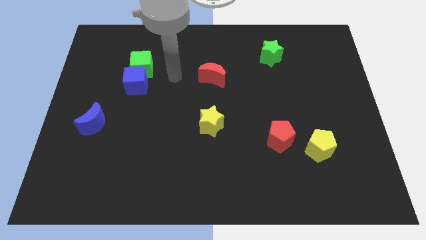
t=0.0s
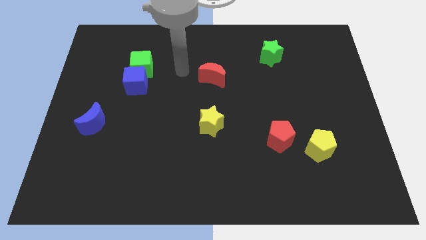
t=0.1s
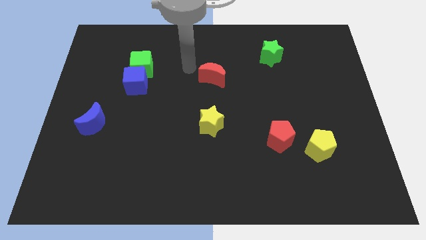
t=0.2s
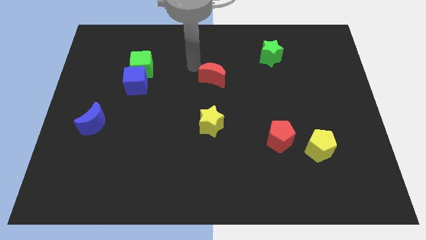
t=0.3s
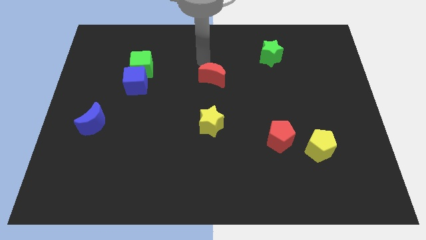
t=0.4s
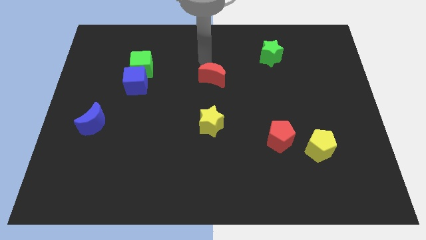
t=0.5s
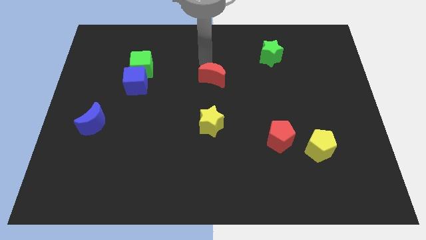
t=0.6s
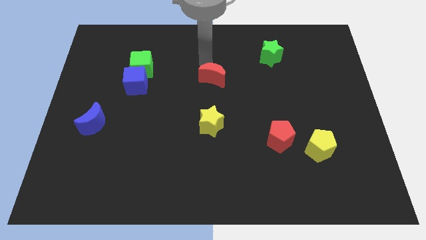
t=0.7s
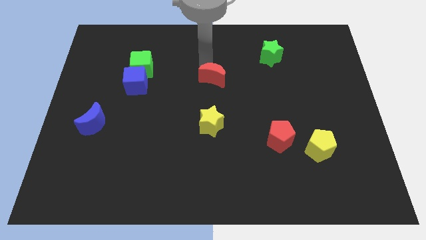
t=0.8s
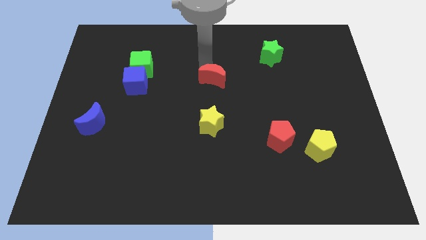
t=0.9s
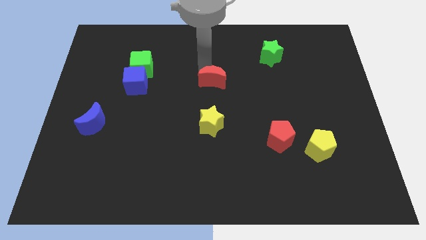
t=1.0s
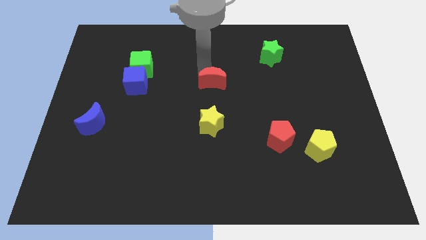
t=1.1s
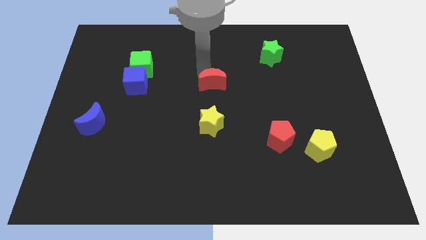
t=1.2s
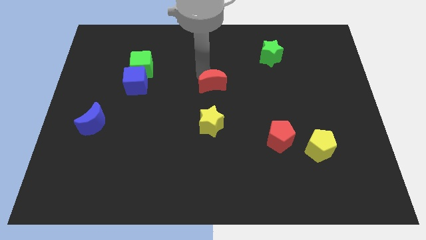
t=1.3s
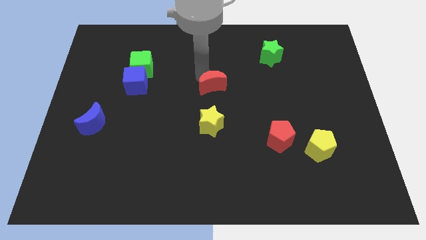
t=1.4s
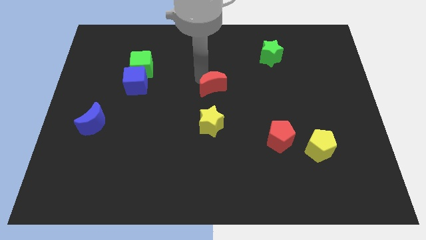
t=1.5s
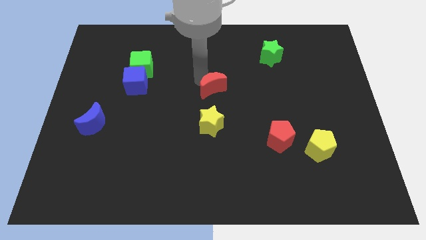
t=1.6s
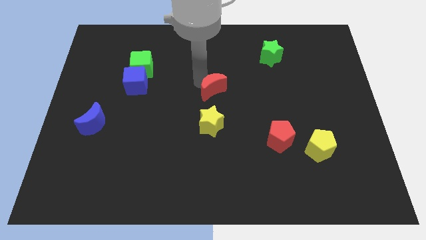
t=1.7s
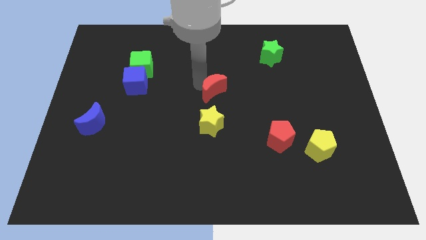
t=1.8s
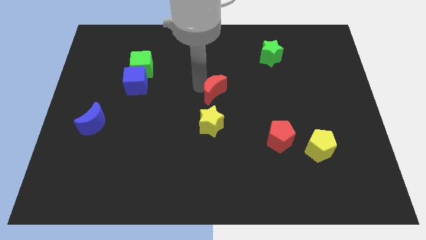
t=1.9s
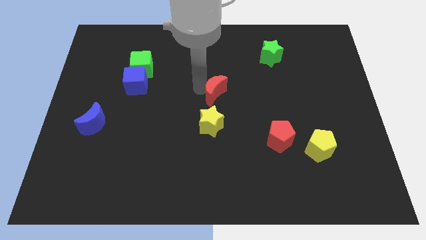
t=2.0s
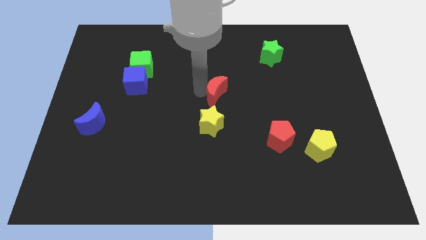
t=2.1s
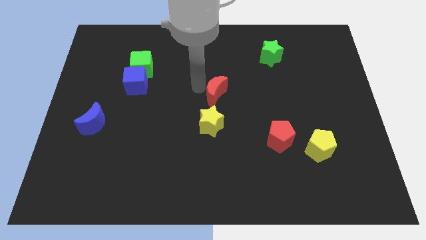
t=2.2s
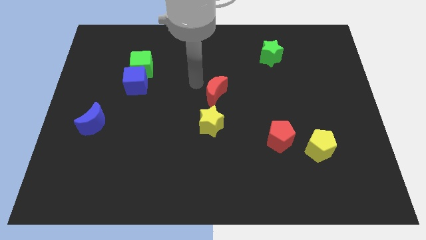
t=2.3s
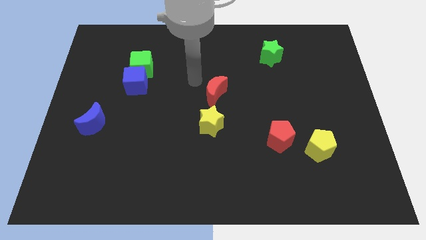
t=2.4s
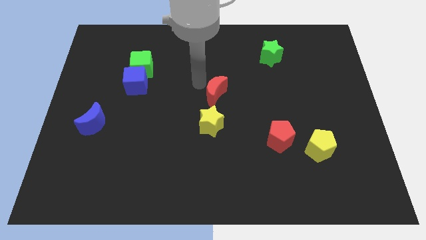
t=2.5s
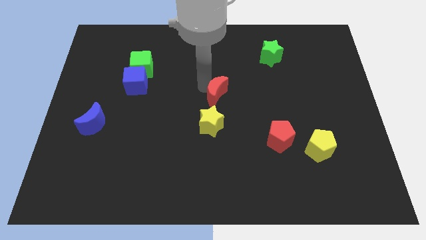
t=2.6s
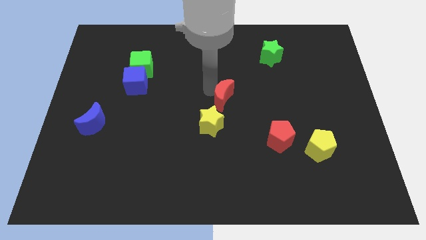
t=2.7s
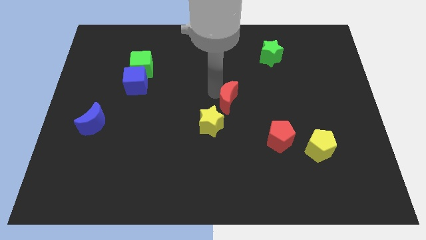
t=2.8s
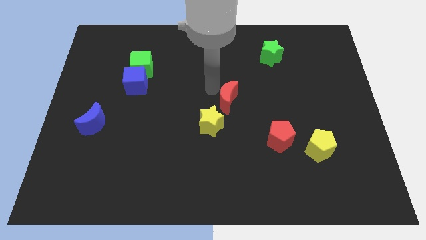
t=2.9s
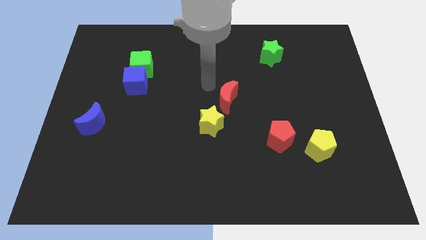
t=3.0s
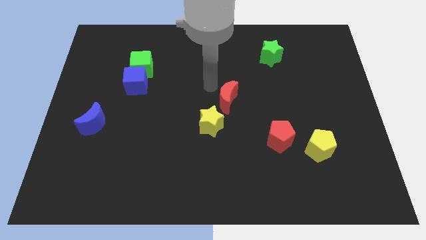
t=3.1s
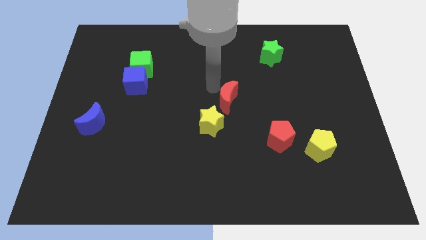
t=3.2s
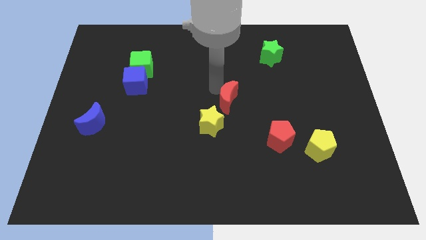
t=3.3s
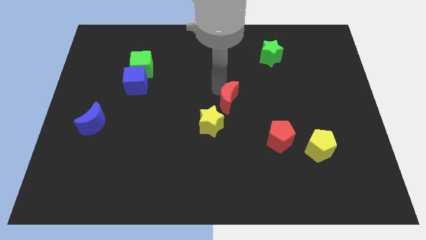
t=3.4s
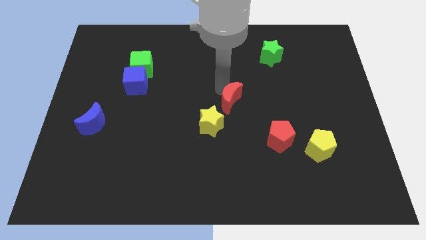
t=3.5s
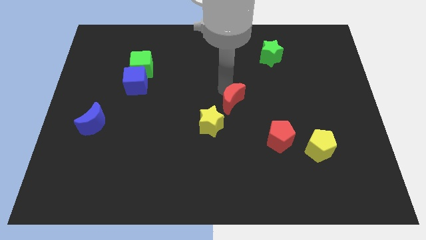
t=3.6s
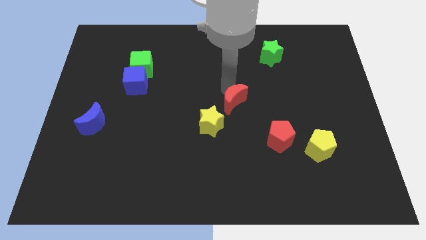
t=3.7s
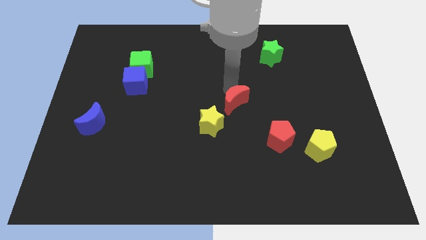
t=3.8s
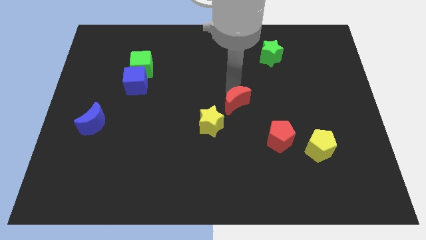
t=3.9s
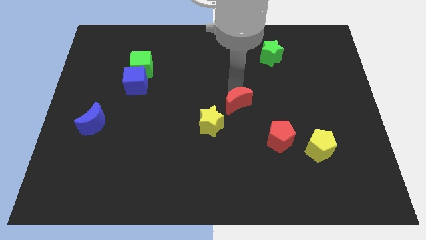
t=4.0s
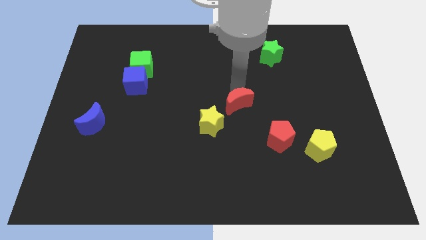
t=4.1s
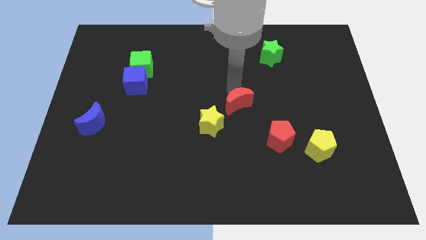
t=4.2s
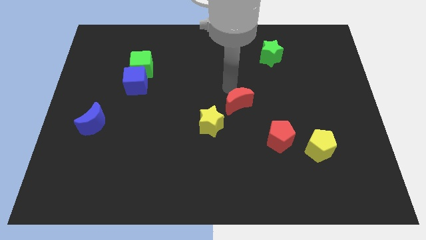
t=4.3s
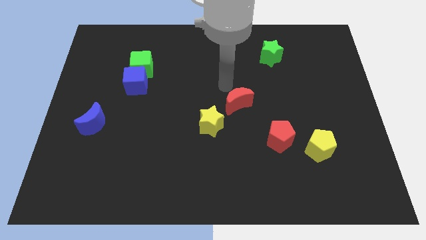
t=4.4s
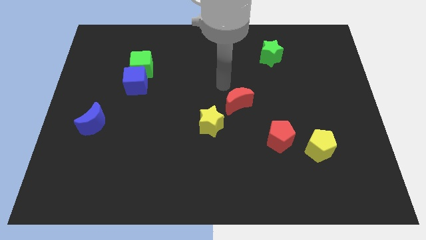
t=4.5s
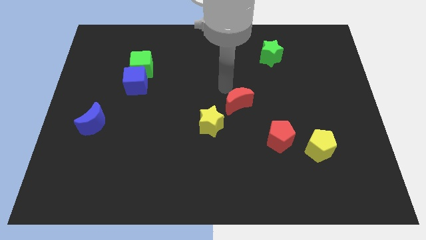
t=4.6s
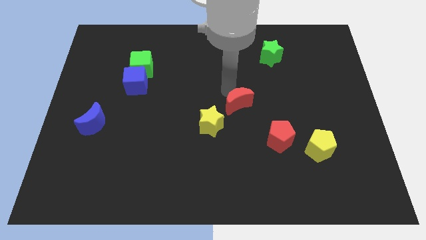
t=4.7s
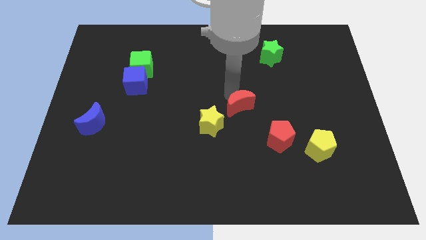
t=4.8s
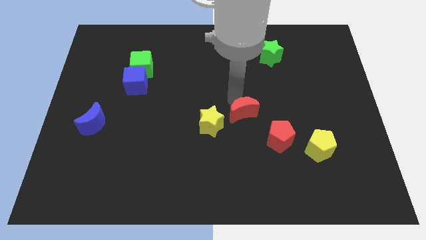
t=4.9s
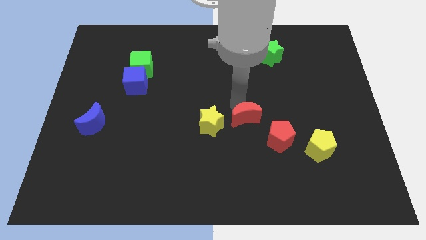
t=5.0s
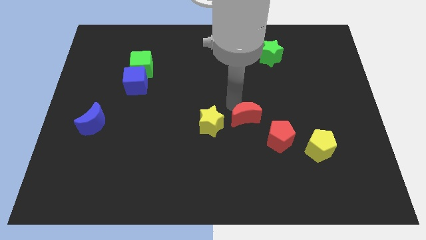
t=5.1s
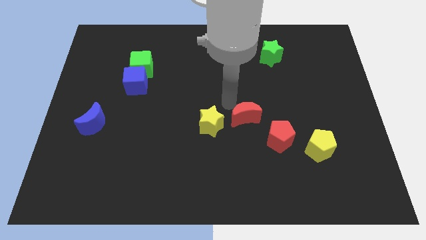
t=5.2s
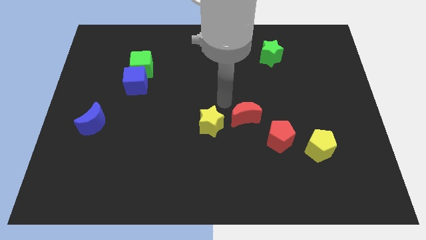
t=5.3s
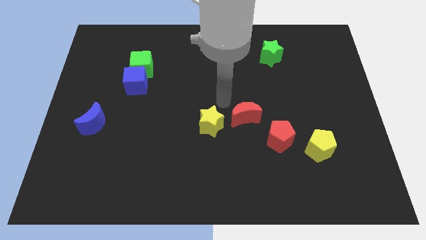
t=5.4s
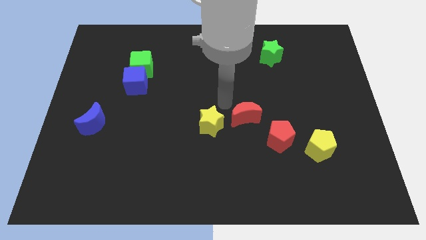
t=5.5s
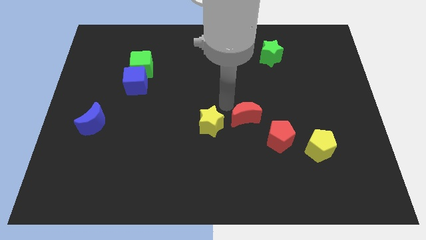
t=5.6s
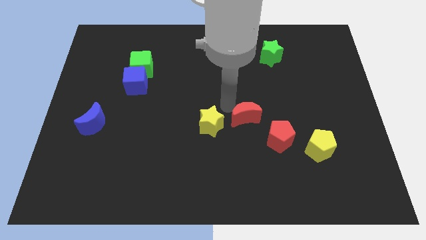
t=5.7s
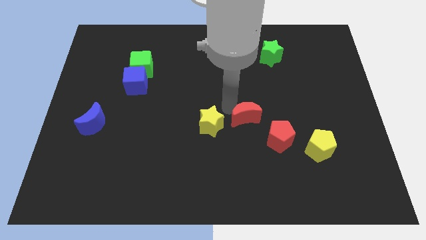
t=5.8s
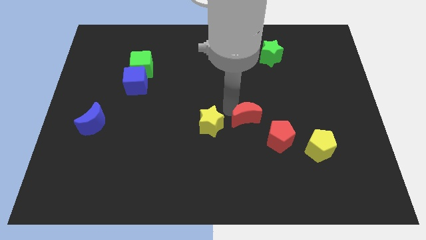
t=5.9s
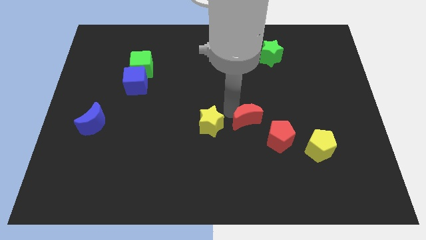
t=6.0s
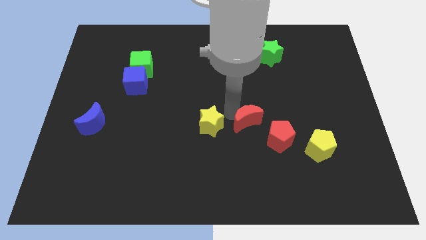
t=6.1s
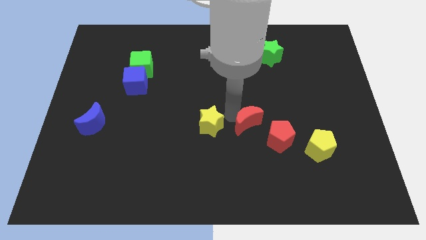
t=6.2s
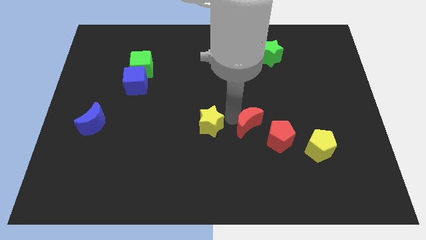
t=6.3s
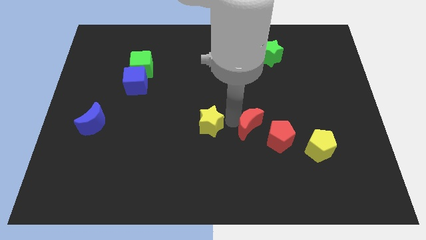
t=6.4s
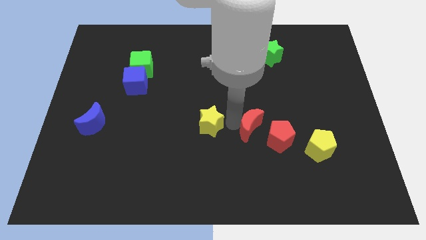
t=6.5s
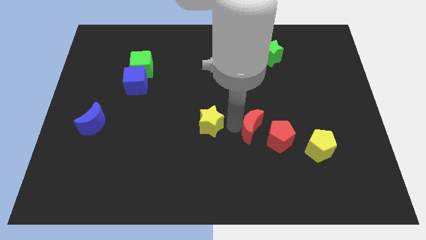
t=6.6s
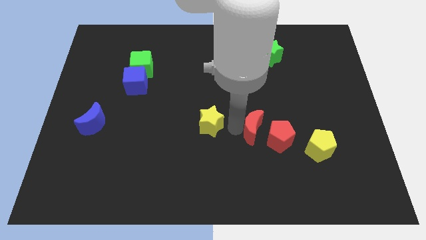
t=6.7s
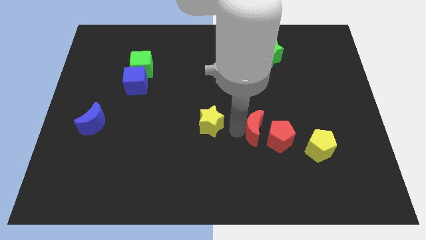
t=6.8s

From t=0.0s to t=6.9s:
move the red moon towards the red pentagon

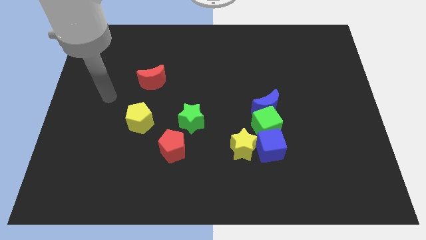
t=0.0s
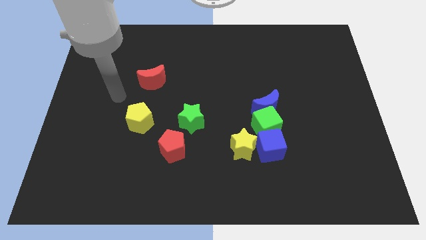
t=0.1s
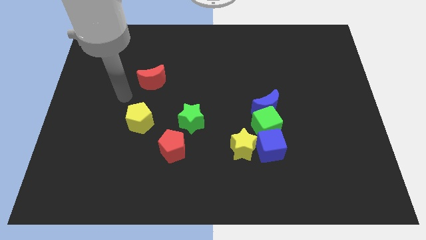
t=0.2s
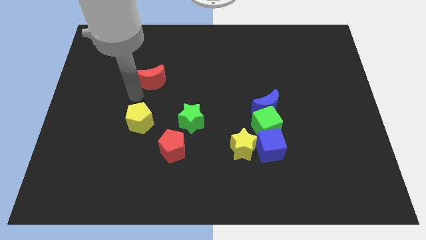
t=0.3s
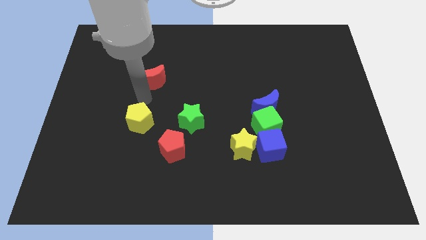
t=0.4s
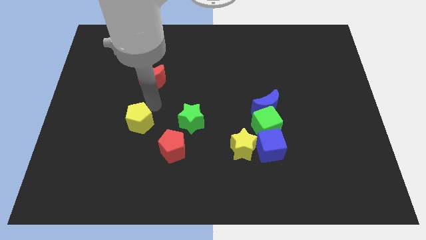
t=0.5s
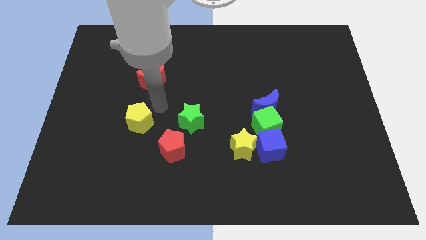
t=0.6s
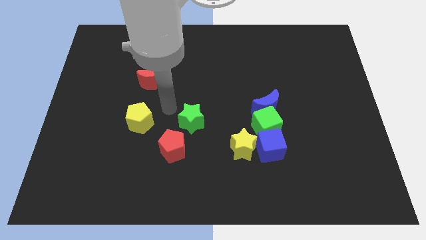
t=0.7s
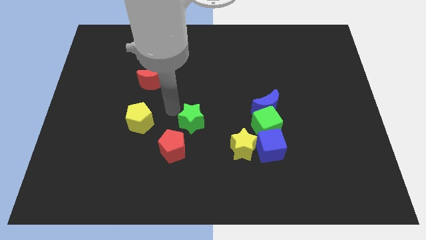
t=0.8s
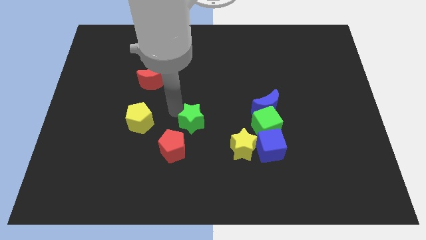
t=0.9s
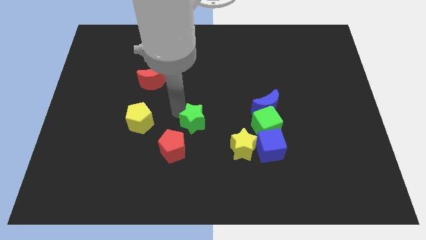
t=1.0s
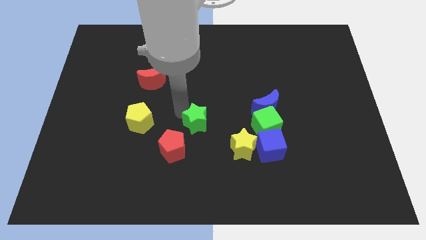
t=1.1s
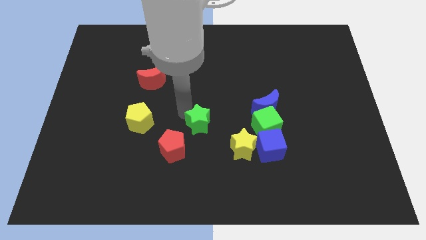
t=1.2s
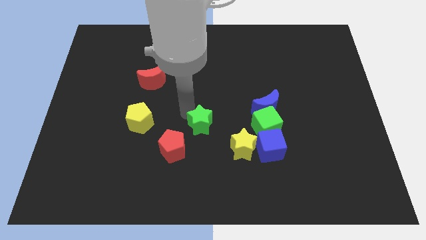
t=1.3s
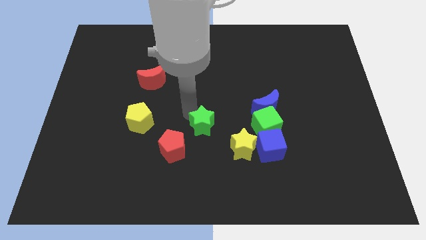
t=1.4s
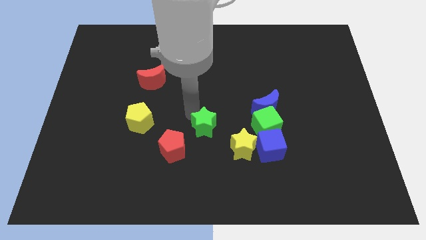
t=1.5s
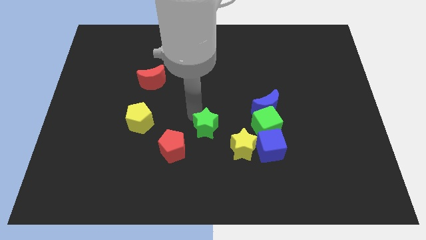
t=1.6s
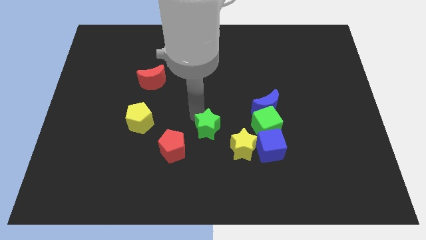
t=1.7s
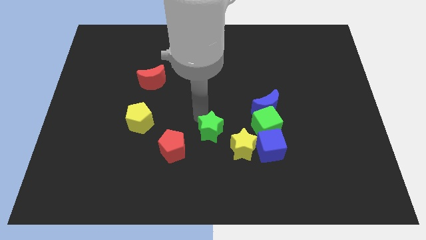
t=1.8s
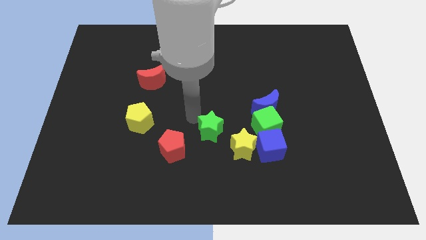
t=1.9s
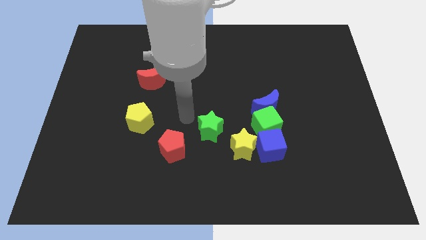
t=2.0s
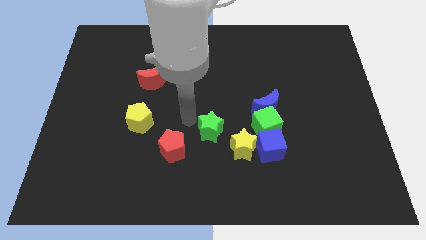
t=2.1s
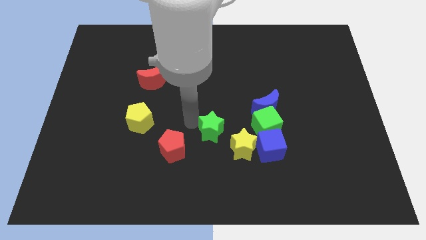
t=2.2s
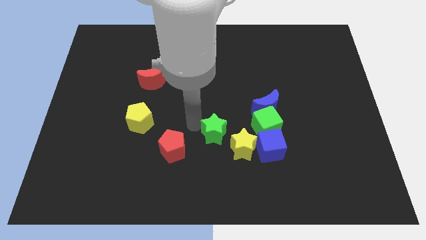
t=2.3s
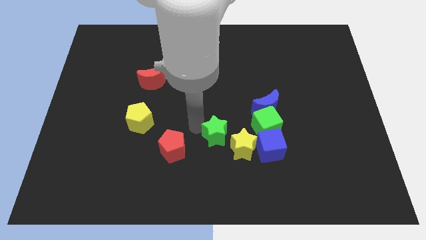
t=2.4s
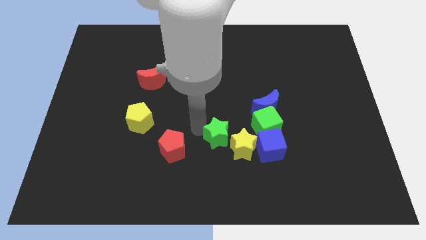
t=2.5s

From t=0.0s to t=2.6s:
slide the green star towards the yellow star
